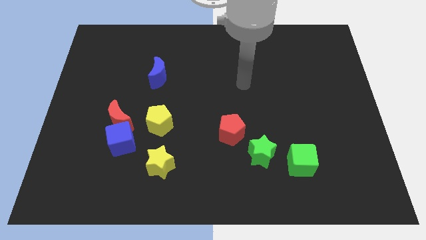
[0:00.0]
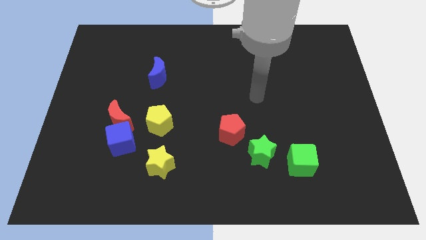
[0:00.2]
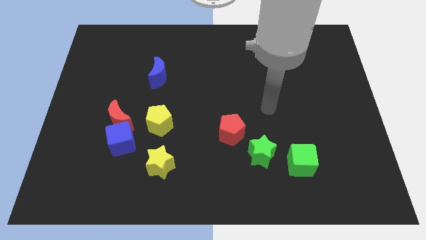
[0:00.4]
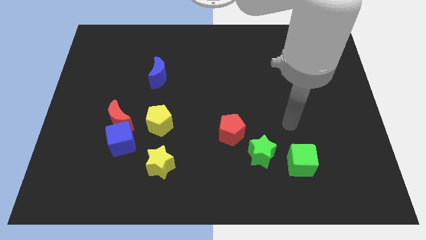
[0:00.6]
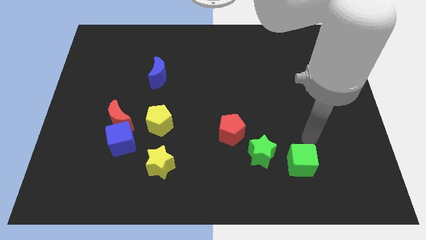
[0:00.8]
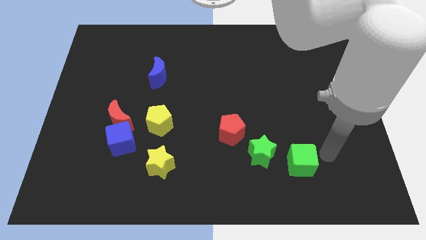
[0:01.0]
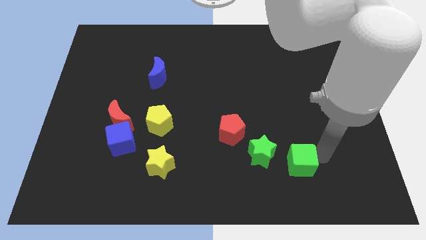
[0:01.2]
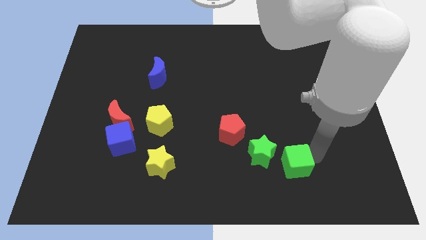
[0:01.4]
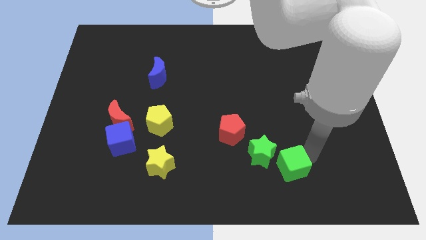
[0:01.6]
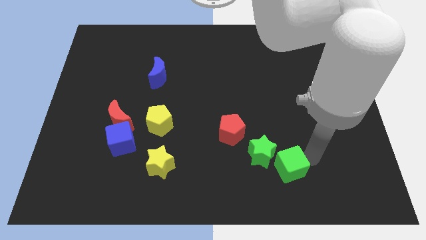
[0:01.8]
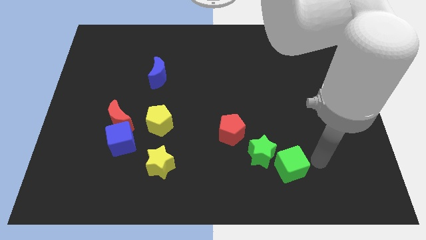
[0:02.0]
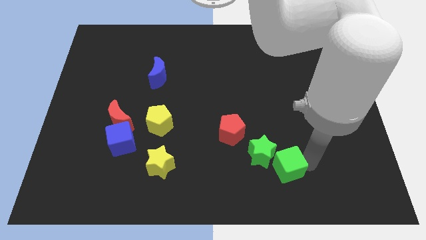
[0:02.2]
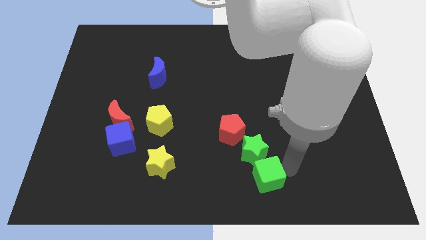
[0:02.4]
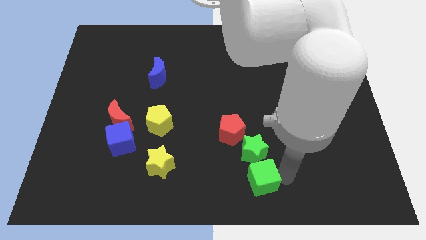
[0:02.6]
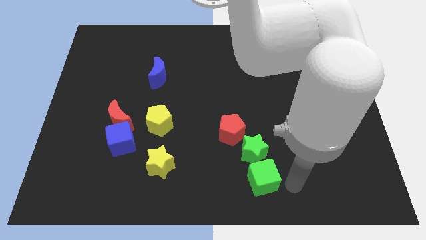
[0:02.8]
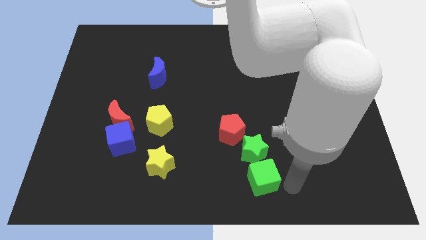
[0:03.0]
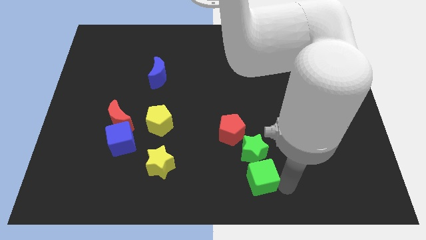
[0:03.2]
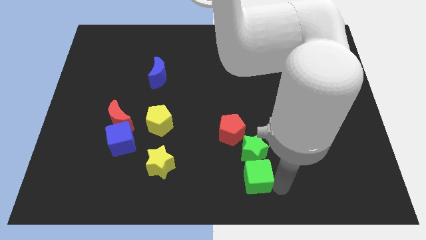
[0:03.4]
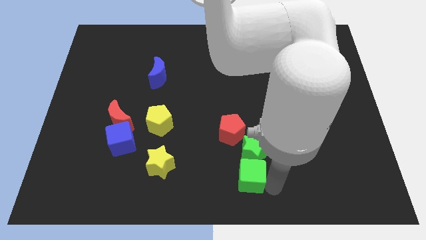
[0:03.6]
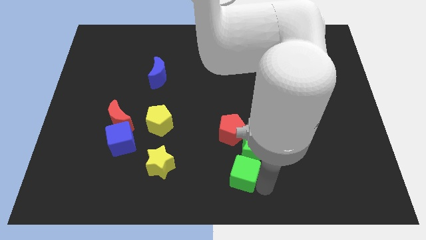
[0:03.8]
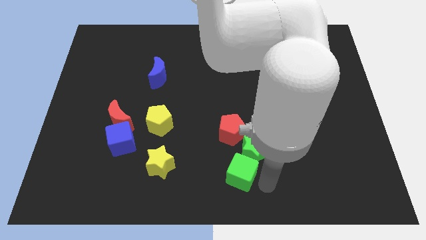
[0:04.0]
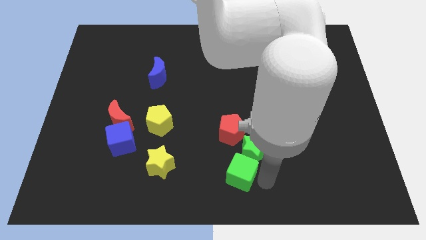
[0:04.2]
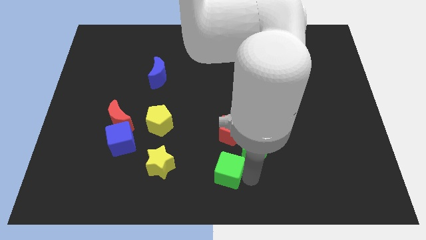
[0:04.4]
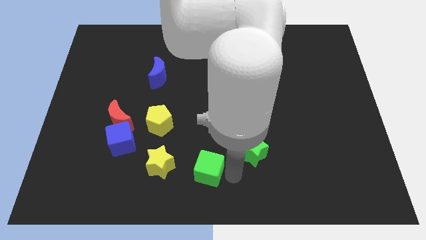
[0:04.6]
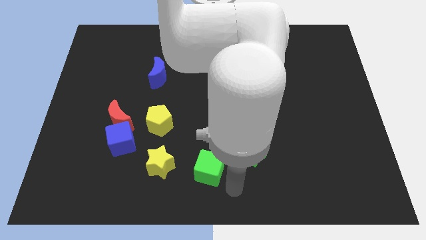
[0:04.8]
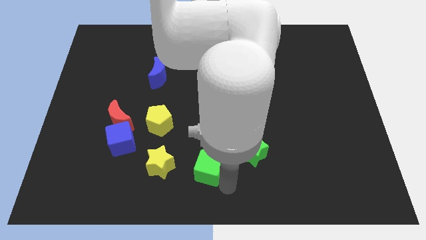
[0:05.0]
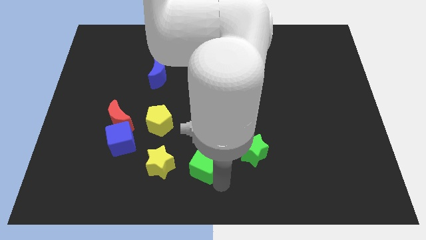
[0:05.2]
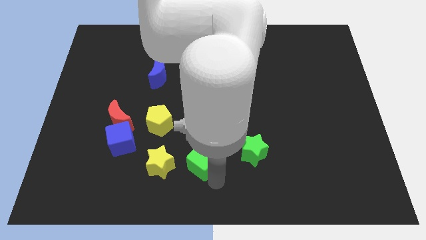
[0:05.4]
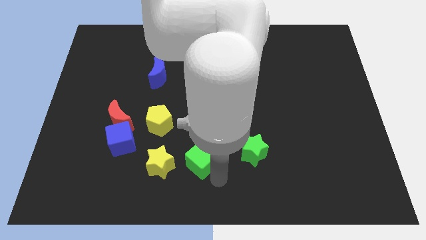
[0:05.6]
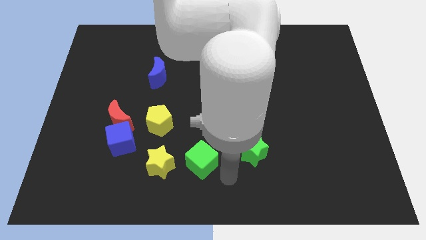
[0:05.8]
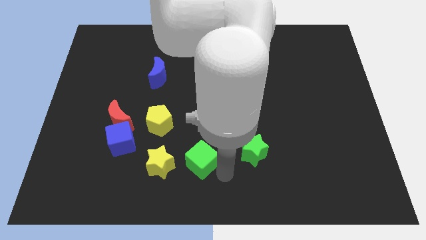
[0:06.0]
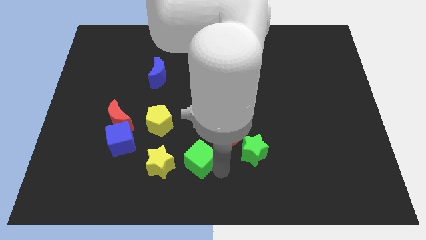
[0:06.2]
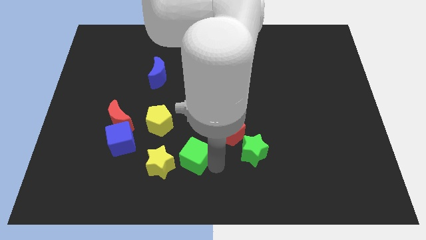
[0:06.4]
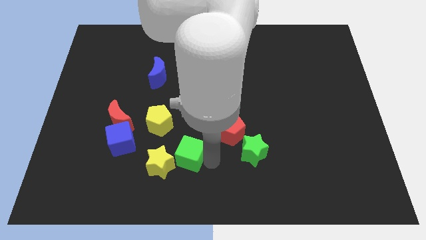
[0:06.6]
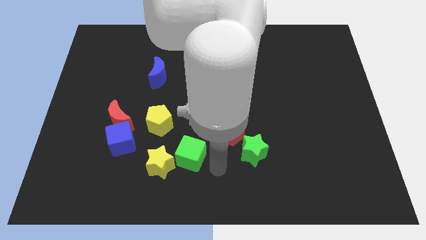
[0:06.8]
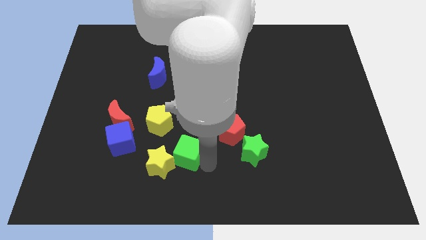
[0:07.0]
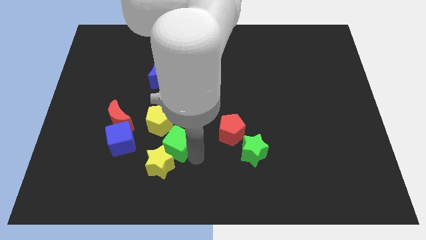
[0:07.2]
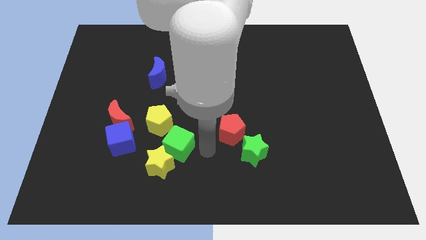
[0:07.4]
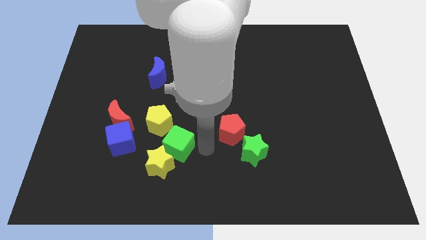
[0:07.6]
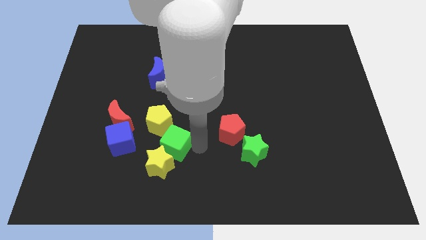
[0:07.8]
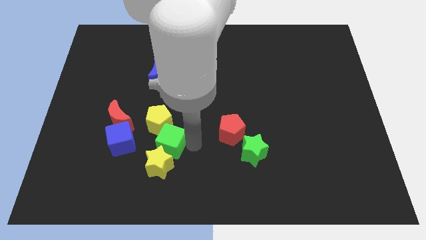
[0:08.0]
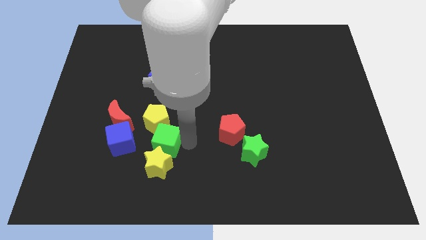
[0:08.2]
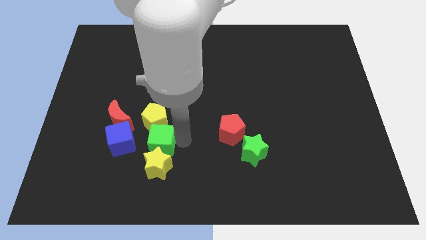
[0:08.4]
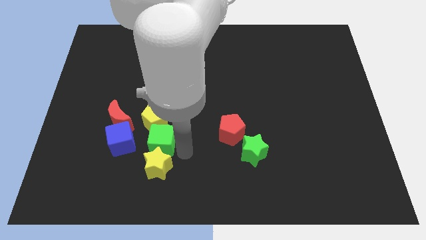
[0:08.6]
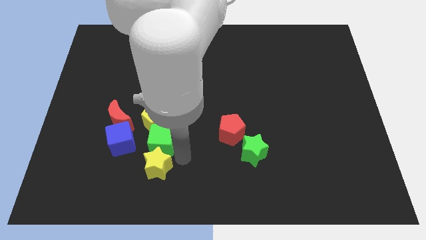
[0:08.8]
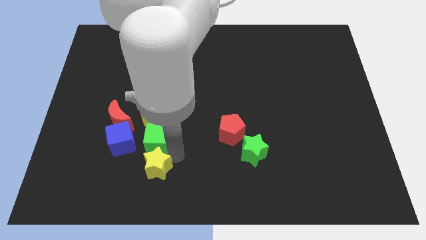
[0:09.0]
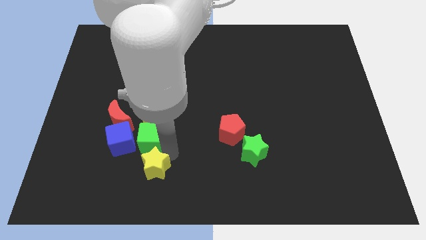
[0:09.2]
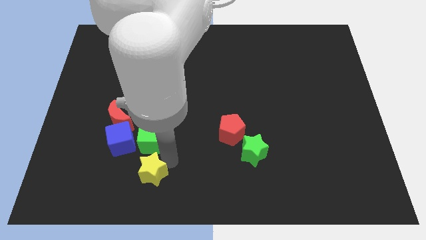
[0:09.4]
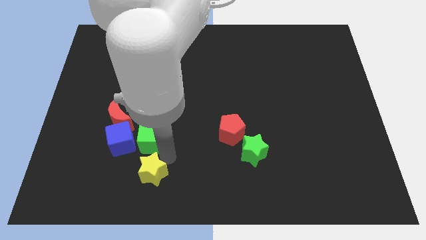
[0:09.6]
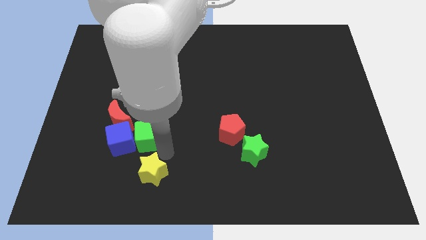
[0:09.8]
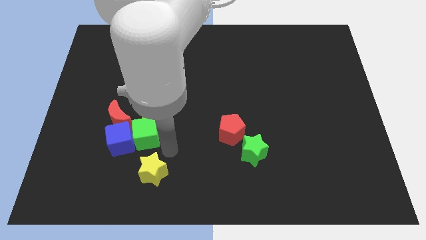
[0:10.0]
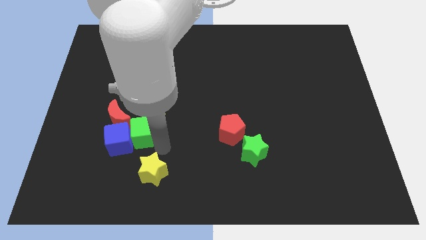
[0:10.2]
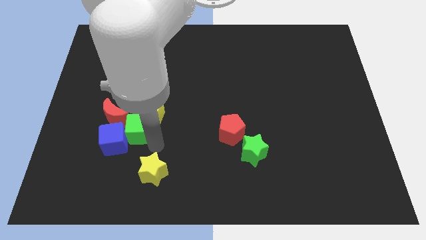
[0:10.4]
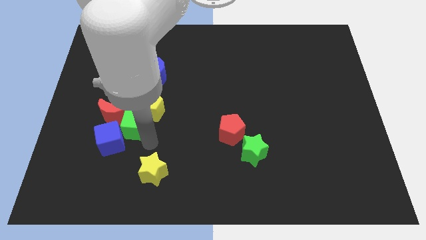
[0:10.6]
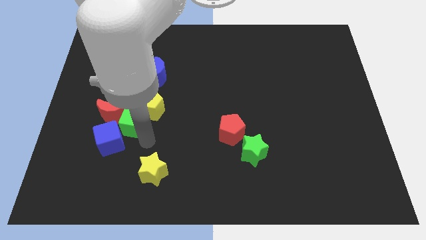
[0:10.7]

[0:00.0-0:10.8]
move the green cube to the red moon

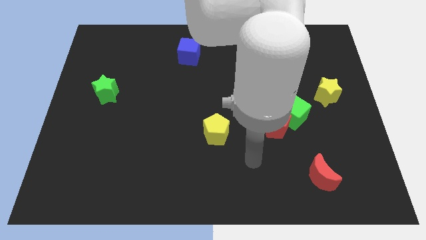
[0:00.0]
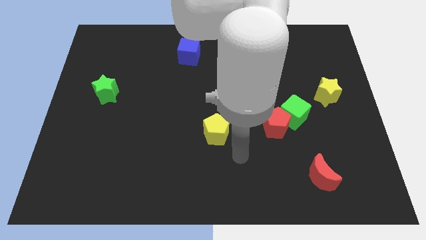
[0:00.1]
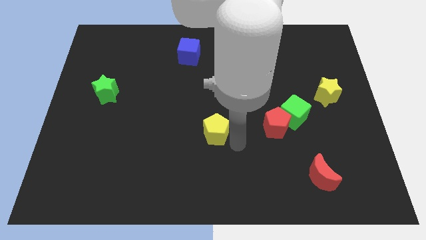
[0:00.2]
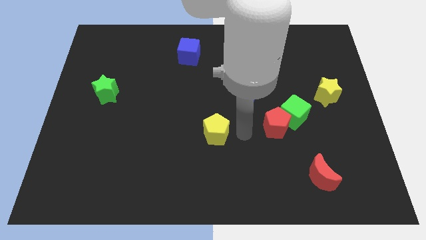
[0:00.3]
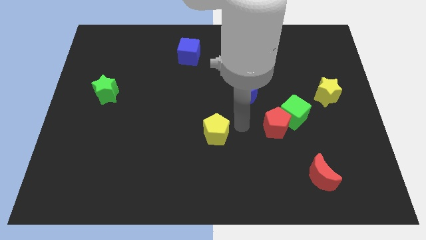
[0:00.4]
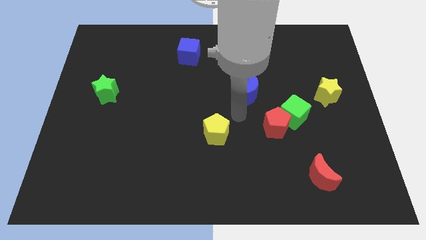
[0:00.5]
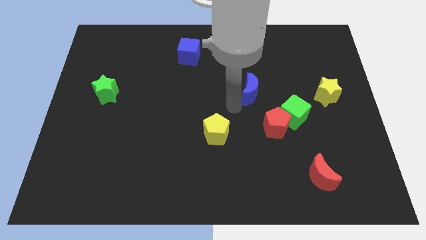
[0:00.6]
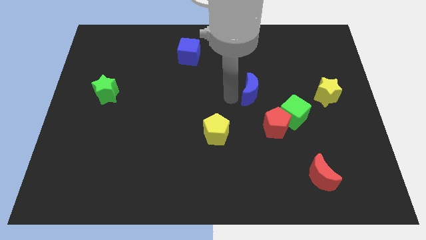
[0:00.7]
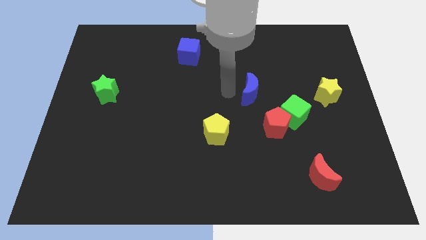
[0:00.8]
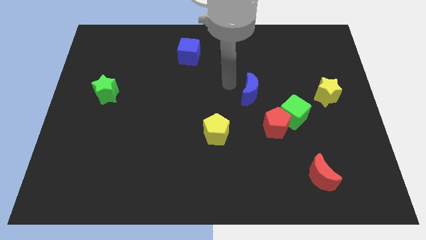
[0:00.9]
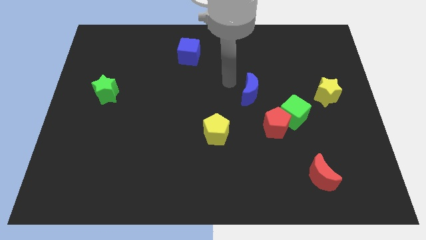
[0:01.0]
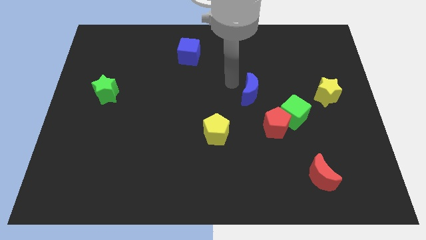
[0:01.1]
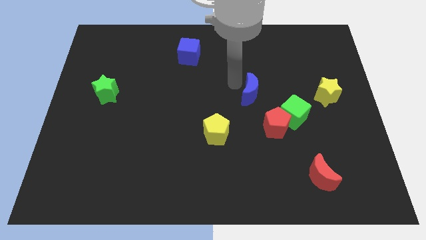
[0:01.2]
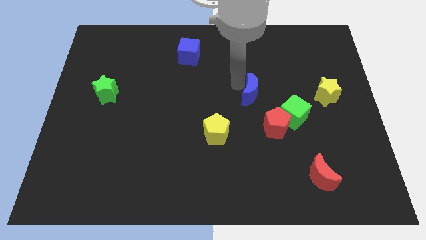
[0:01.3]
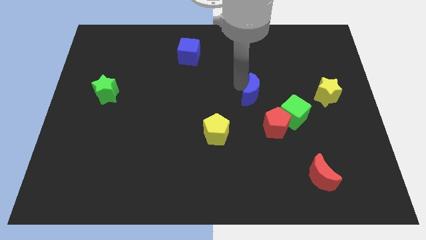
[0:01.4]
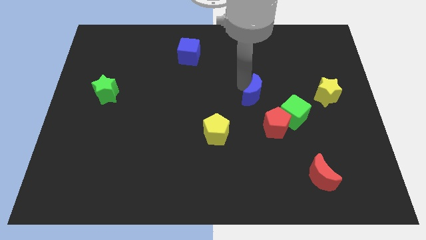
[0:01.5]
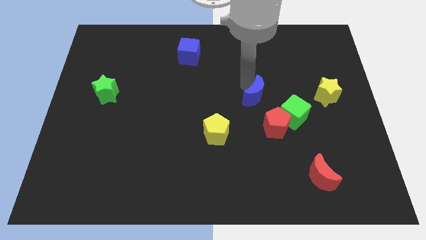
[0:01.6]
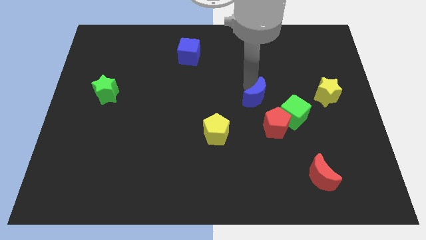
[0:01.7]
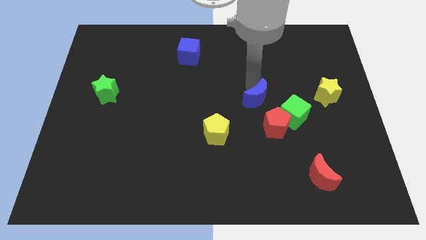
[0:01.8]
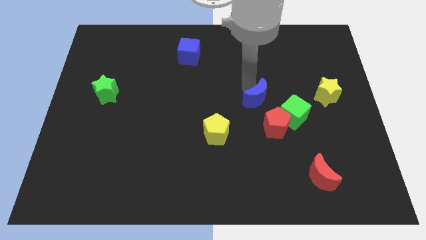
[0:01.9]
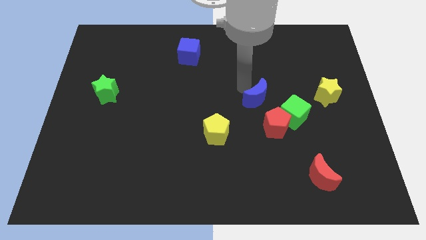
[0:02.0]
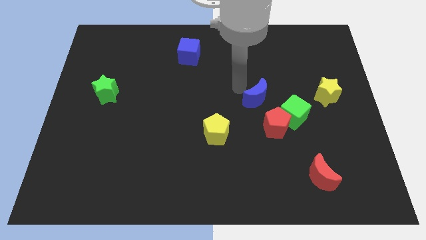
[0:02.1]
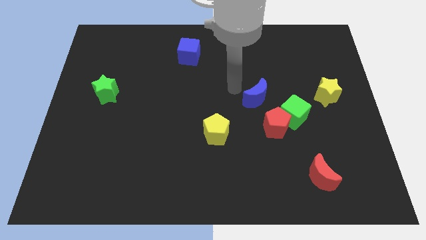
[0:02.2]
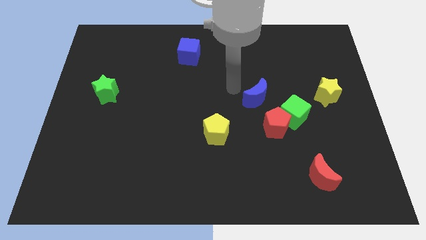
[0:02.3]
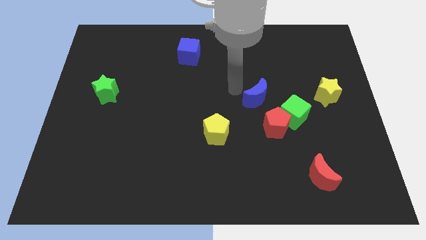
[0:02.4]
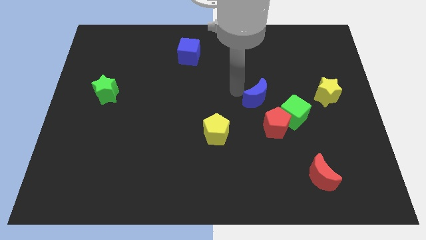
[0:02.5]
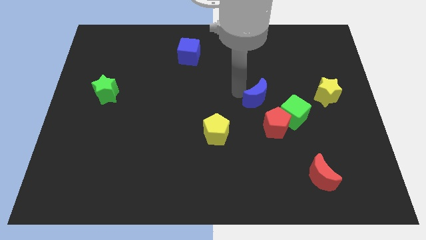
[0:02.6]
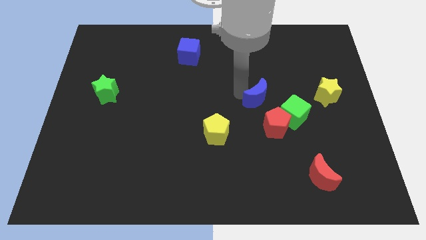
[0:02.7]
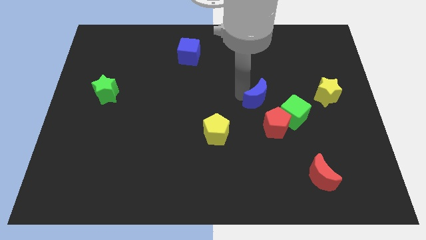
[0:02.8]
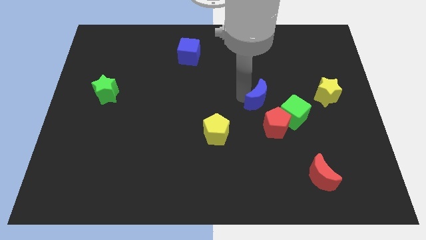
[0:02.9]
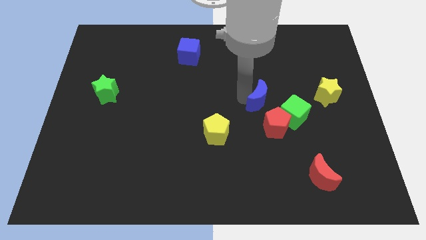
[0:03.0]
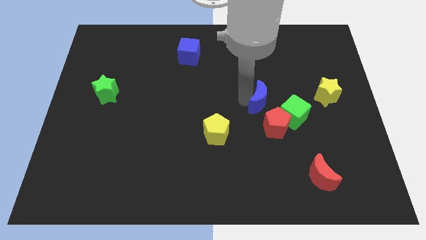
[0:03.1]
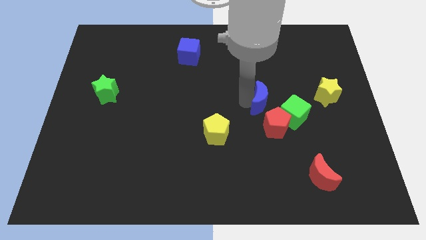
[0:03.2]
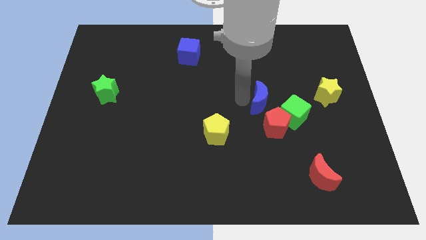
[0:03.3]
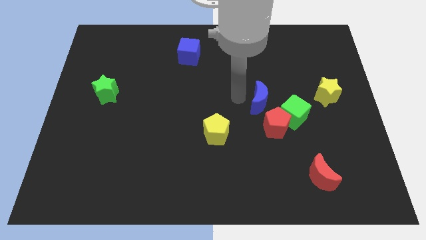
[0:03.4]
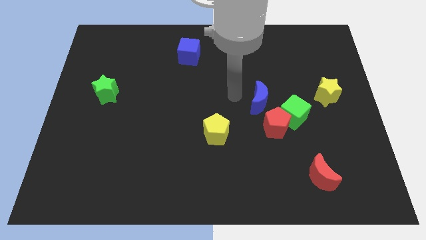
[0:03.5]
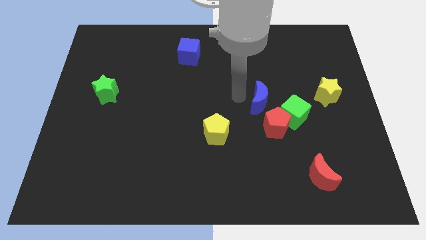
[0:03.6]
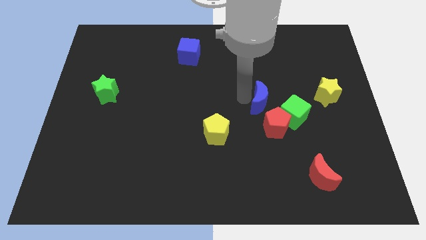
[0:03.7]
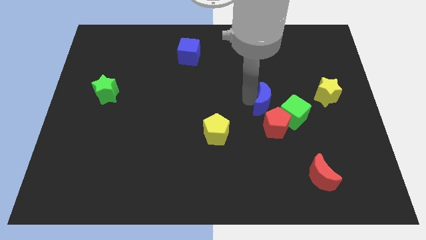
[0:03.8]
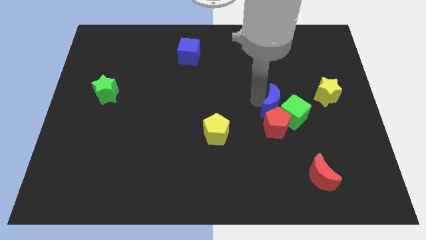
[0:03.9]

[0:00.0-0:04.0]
slide the blue moon next to the green cube
